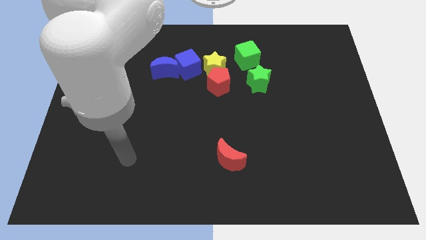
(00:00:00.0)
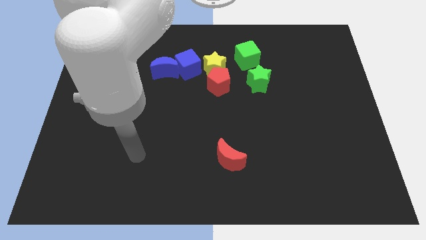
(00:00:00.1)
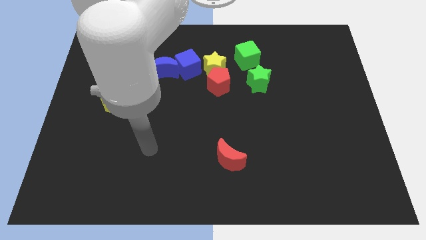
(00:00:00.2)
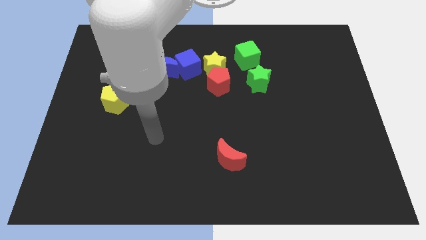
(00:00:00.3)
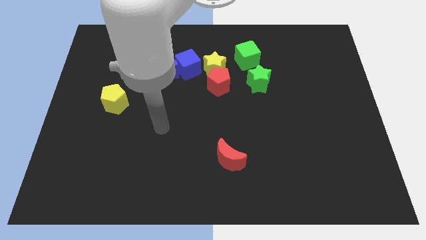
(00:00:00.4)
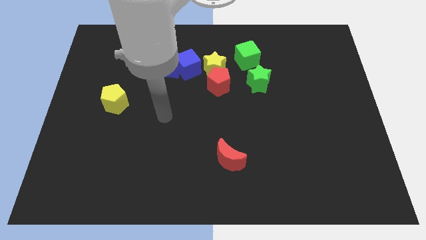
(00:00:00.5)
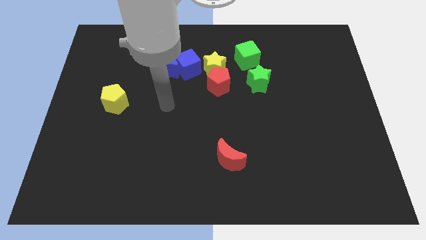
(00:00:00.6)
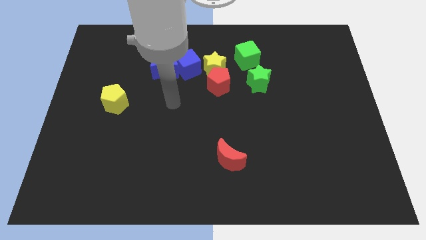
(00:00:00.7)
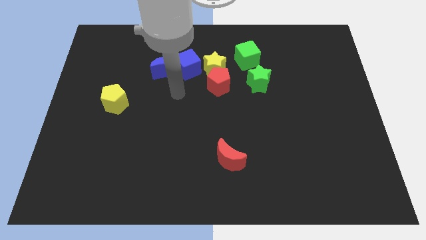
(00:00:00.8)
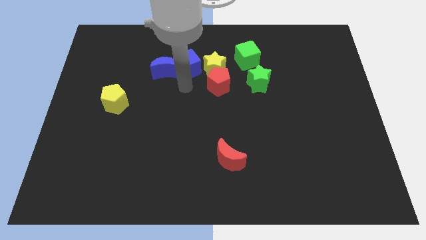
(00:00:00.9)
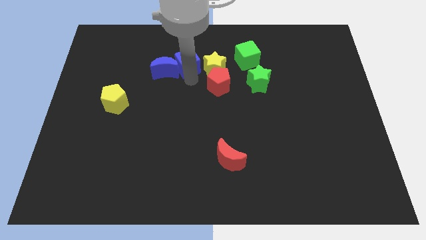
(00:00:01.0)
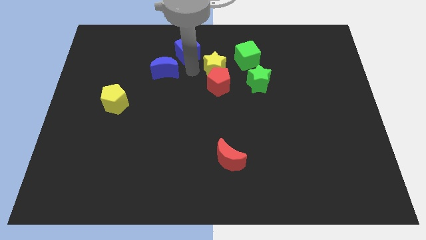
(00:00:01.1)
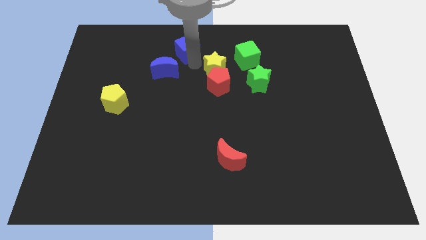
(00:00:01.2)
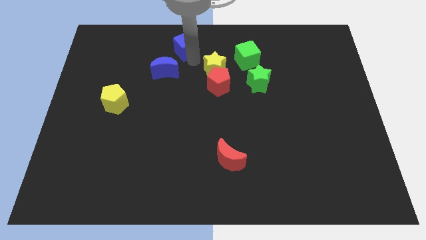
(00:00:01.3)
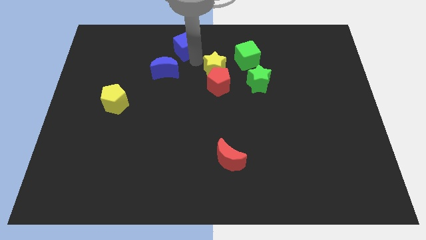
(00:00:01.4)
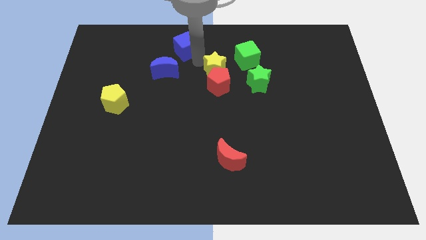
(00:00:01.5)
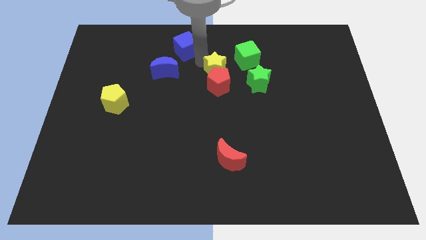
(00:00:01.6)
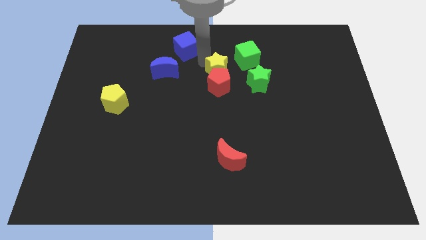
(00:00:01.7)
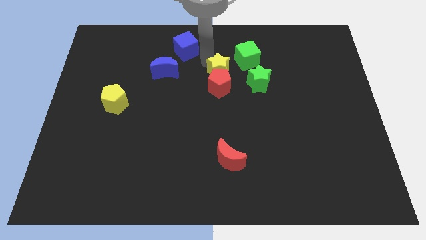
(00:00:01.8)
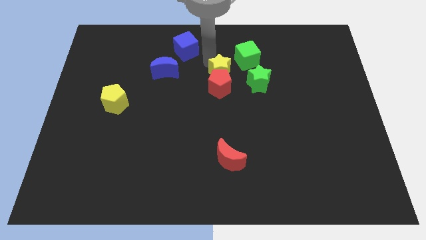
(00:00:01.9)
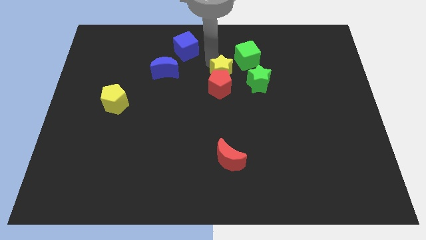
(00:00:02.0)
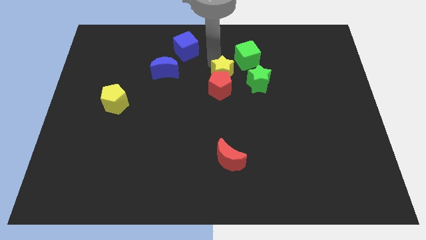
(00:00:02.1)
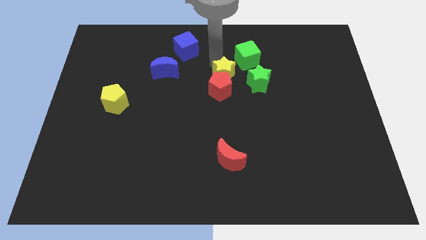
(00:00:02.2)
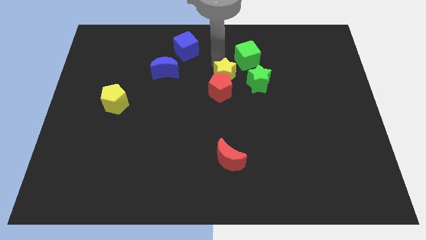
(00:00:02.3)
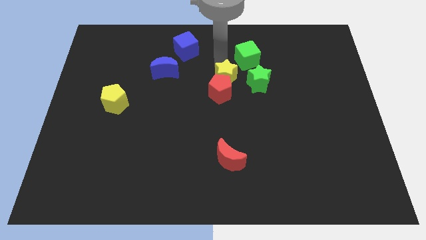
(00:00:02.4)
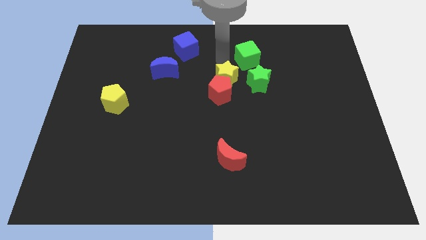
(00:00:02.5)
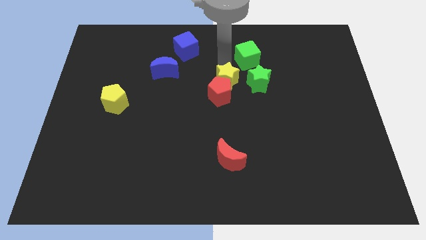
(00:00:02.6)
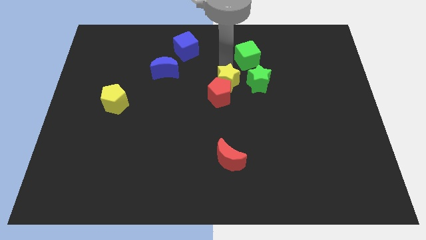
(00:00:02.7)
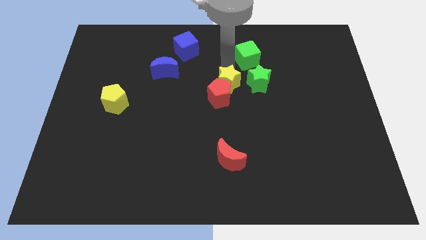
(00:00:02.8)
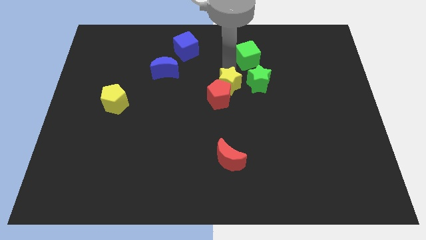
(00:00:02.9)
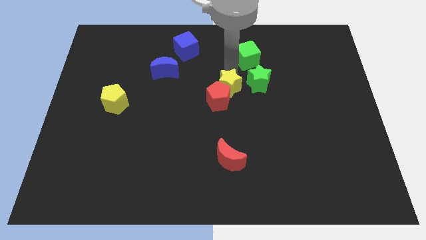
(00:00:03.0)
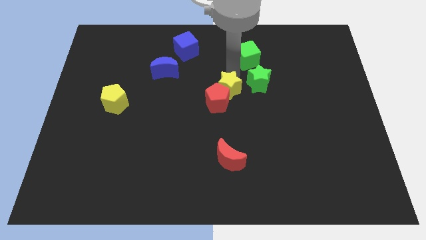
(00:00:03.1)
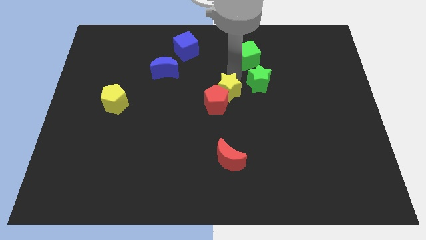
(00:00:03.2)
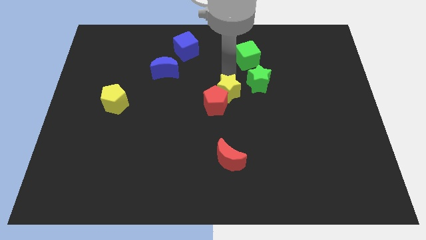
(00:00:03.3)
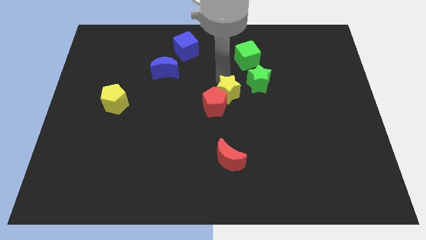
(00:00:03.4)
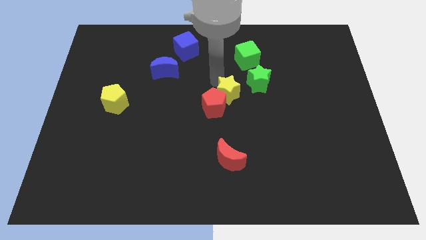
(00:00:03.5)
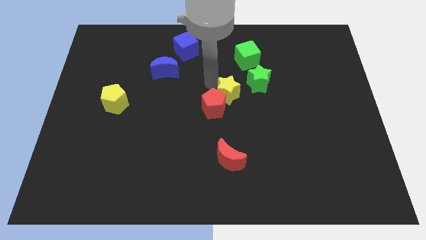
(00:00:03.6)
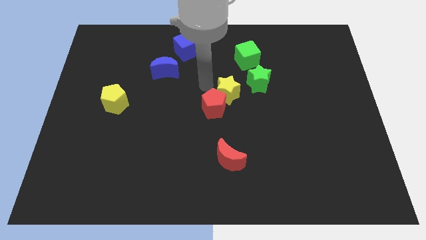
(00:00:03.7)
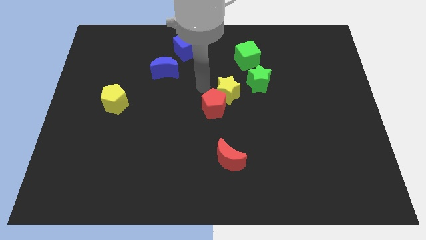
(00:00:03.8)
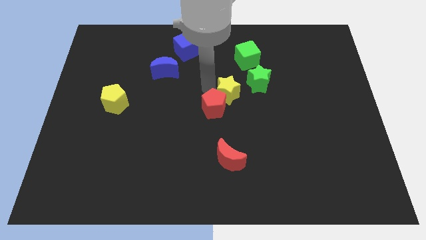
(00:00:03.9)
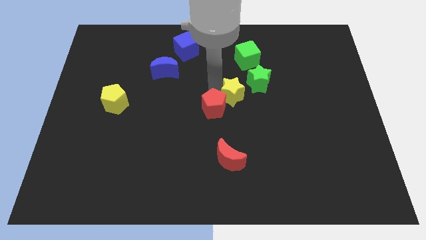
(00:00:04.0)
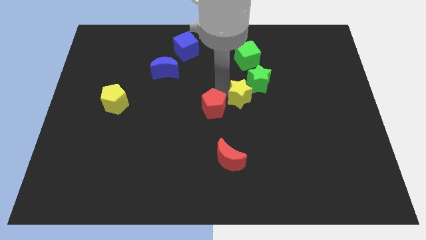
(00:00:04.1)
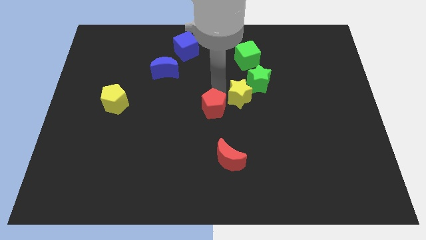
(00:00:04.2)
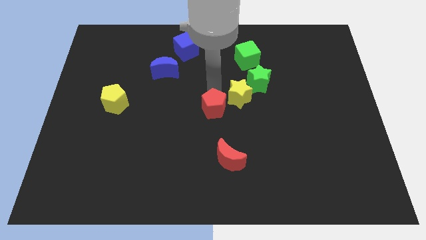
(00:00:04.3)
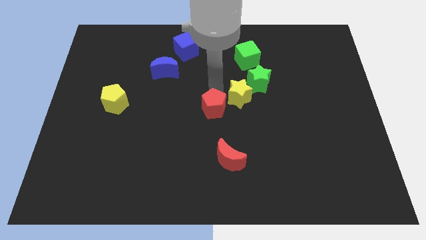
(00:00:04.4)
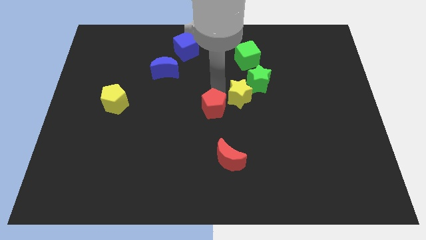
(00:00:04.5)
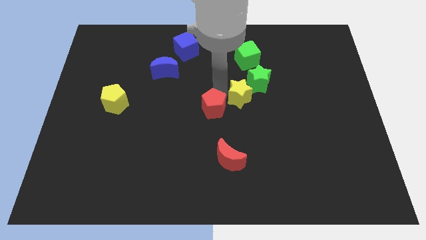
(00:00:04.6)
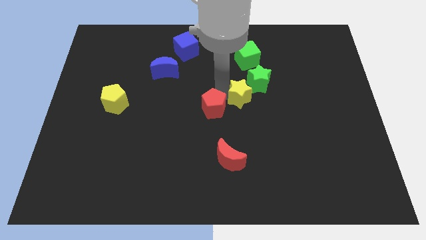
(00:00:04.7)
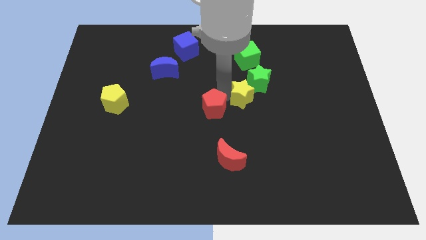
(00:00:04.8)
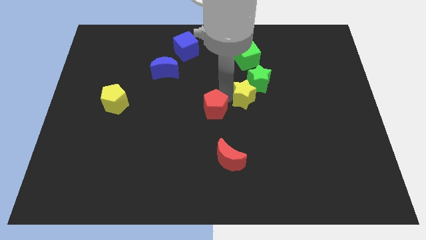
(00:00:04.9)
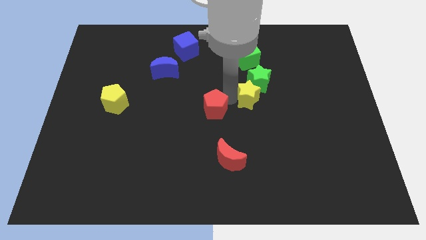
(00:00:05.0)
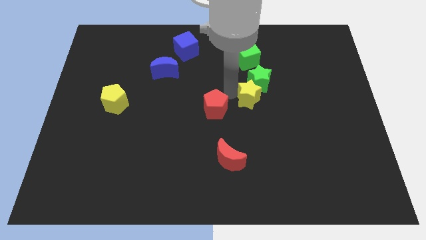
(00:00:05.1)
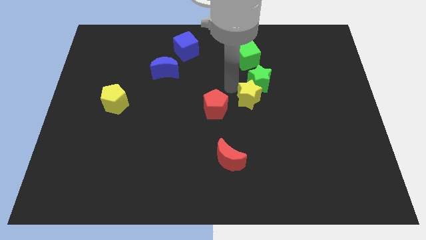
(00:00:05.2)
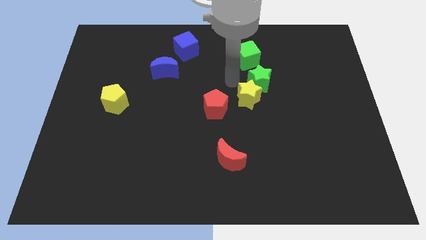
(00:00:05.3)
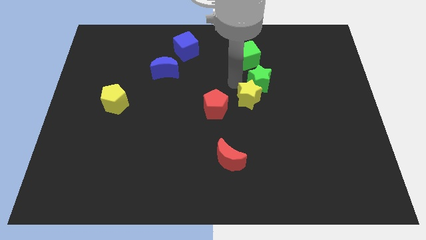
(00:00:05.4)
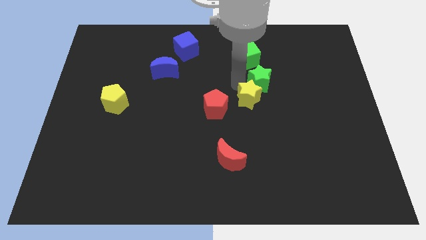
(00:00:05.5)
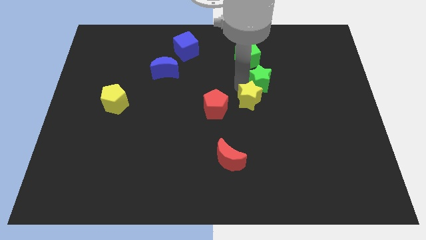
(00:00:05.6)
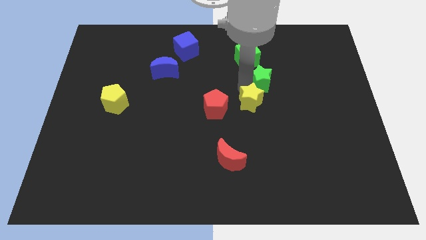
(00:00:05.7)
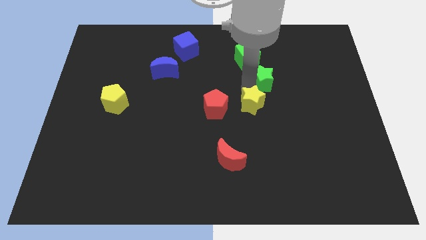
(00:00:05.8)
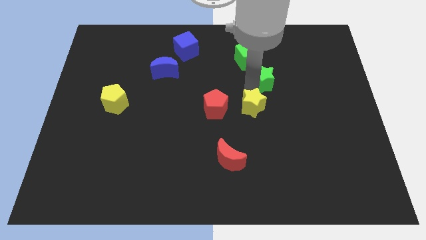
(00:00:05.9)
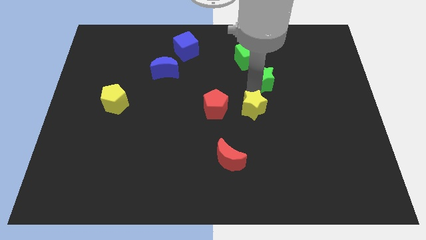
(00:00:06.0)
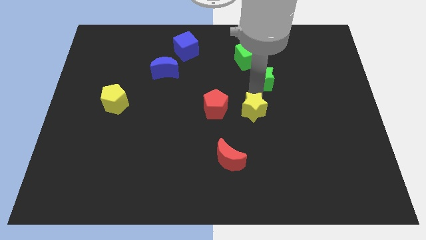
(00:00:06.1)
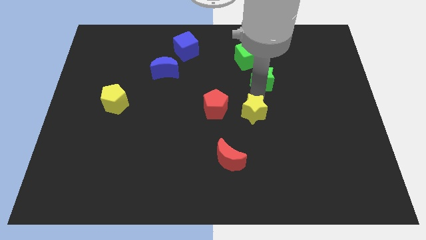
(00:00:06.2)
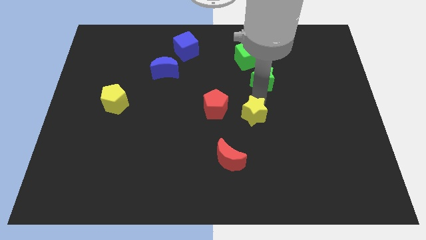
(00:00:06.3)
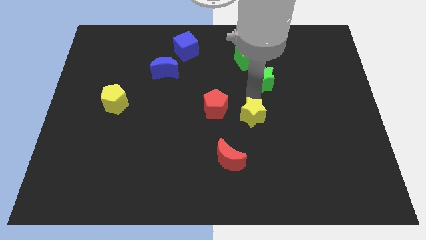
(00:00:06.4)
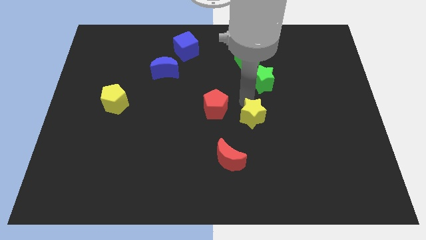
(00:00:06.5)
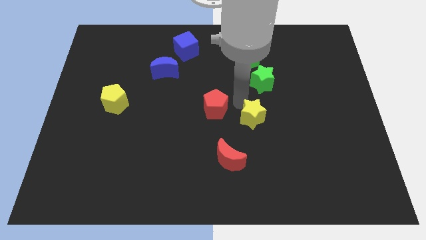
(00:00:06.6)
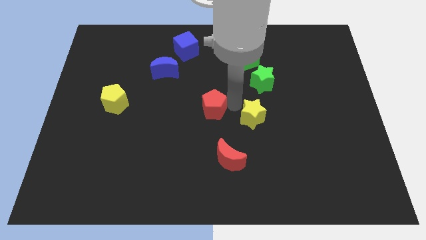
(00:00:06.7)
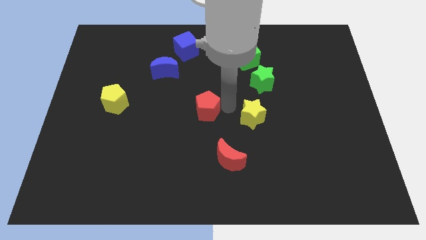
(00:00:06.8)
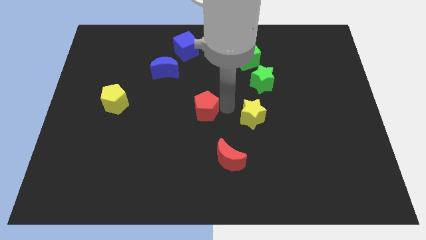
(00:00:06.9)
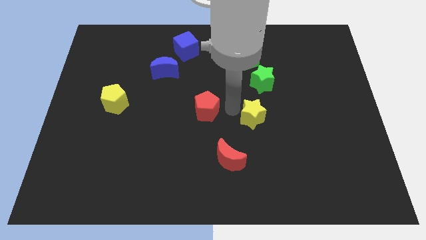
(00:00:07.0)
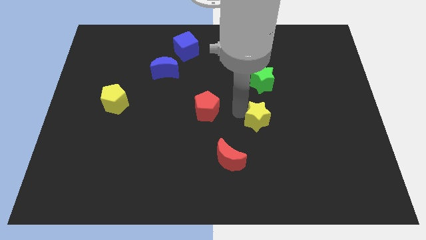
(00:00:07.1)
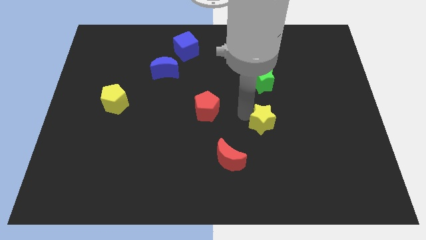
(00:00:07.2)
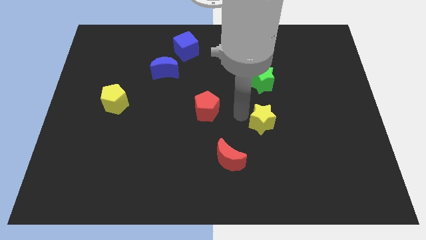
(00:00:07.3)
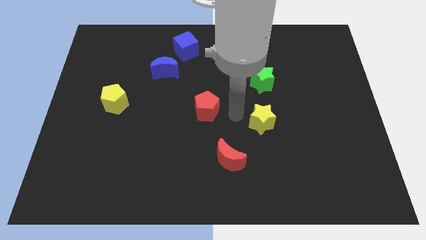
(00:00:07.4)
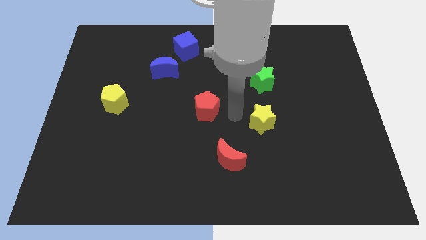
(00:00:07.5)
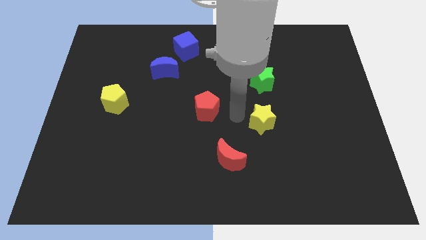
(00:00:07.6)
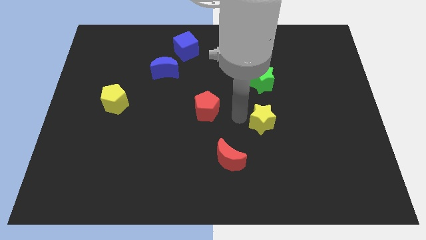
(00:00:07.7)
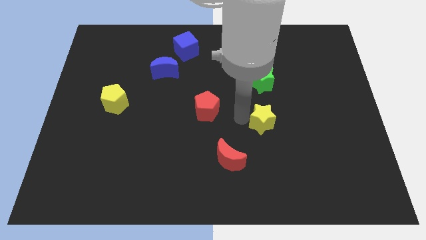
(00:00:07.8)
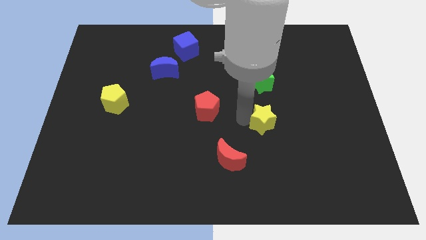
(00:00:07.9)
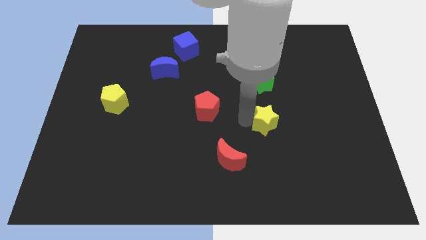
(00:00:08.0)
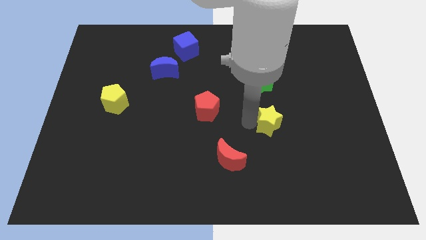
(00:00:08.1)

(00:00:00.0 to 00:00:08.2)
push the yellow star downwards and to the right

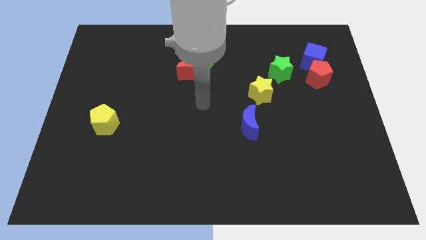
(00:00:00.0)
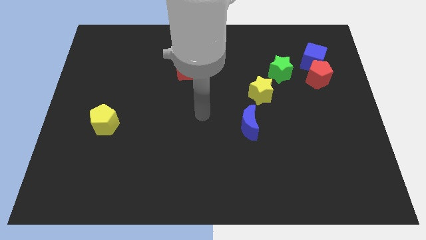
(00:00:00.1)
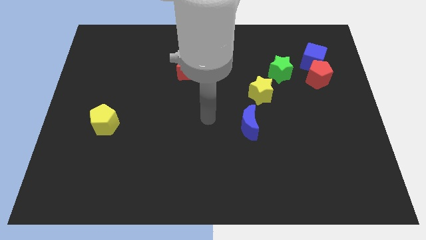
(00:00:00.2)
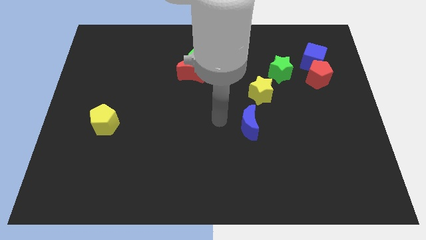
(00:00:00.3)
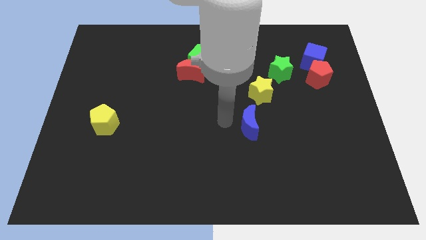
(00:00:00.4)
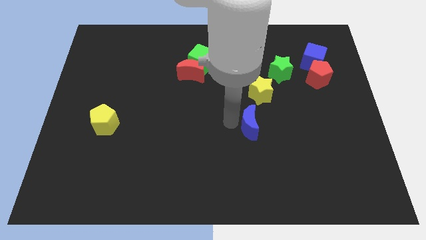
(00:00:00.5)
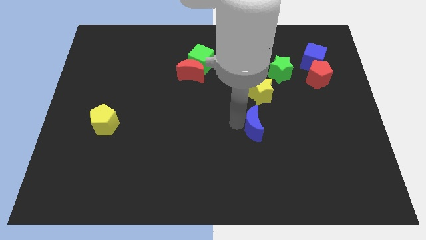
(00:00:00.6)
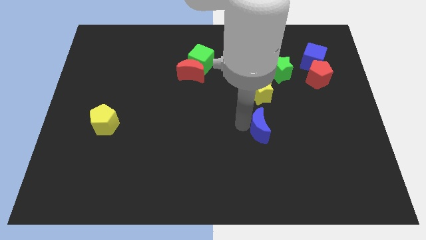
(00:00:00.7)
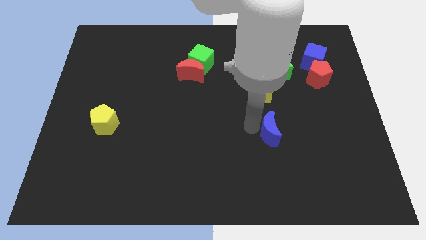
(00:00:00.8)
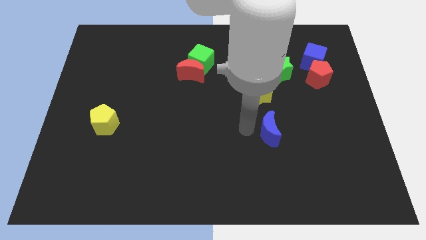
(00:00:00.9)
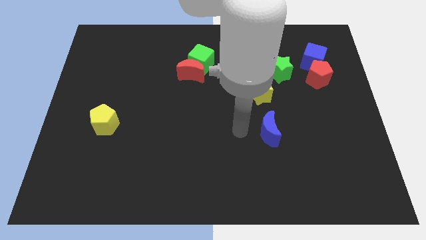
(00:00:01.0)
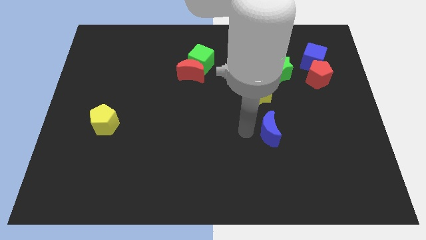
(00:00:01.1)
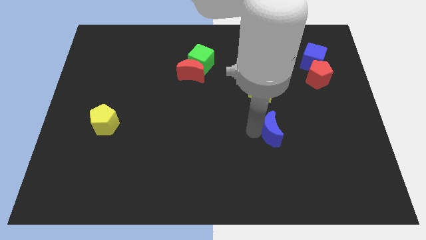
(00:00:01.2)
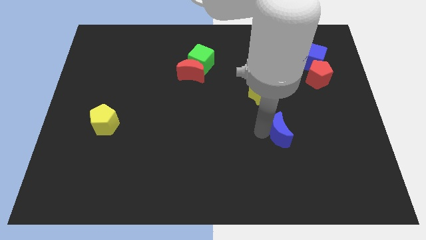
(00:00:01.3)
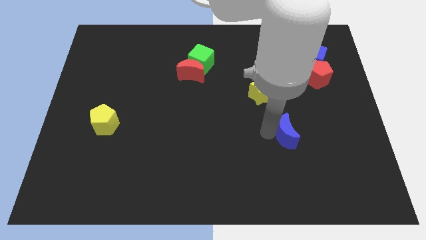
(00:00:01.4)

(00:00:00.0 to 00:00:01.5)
slightly slide the blue moon to the right
